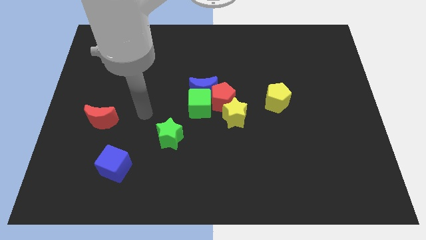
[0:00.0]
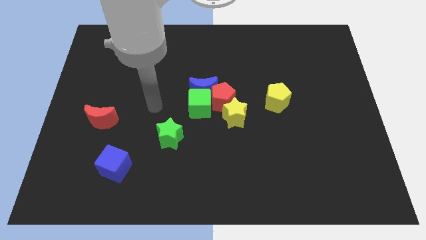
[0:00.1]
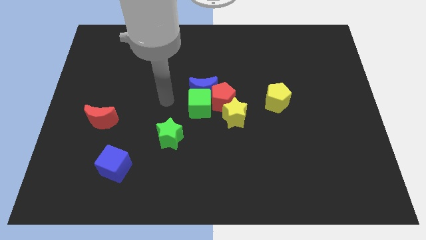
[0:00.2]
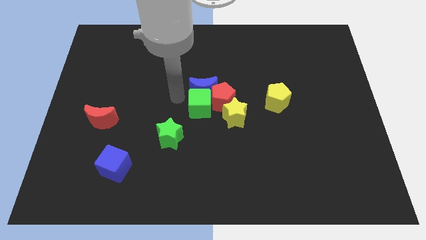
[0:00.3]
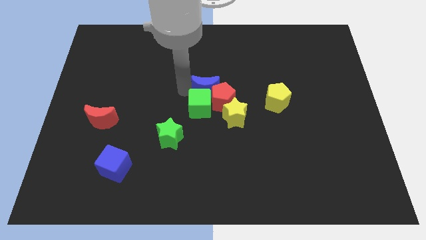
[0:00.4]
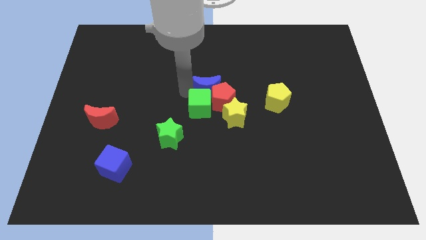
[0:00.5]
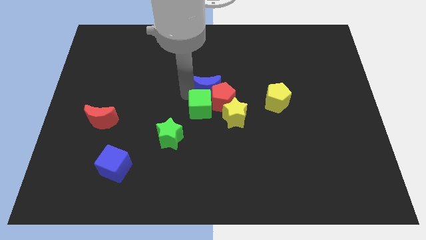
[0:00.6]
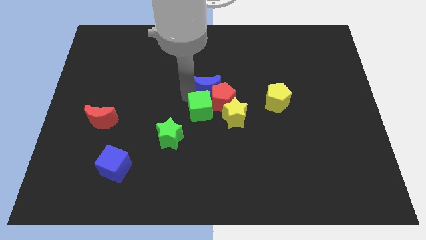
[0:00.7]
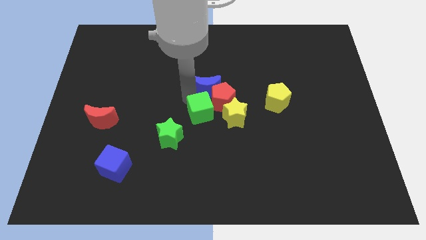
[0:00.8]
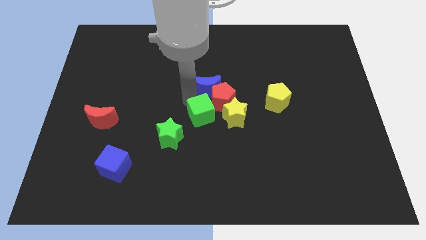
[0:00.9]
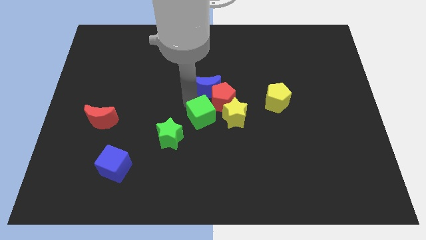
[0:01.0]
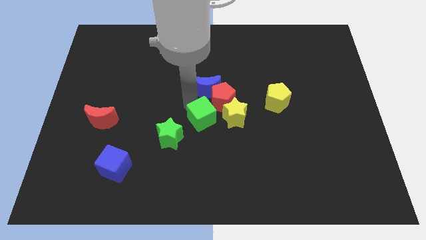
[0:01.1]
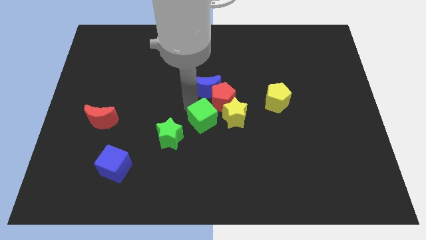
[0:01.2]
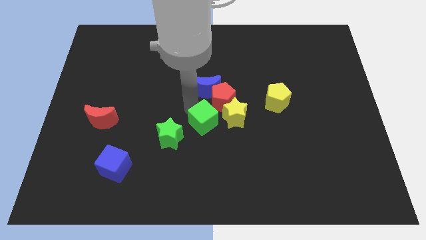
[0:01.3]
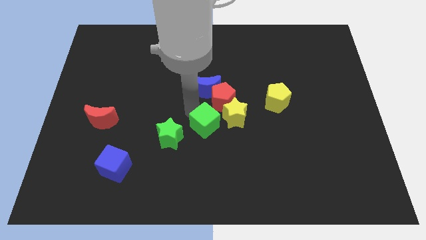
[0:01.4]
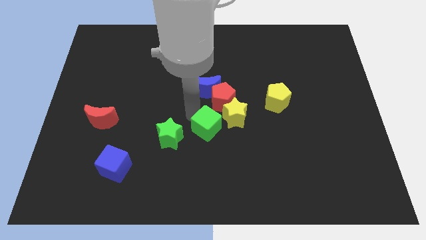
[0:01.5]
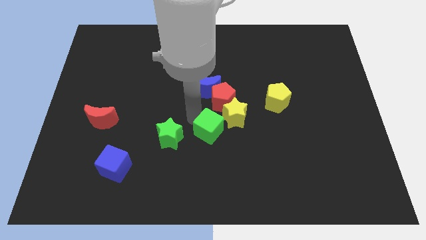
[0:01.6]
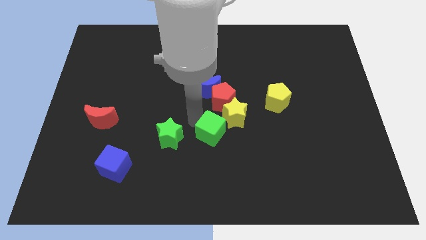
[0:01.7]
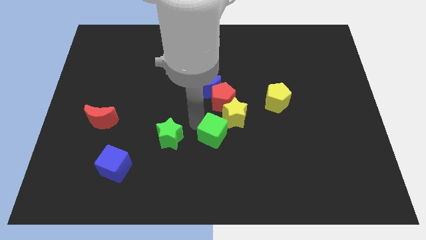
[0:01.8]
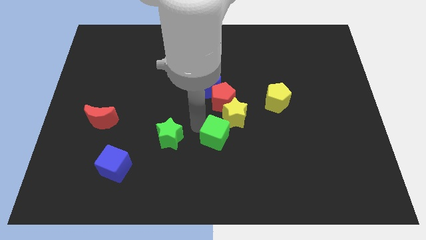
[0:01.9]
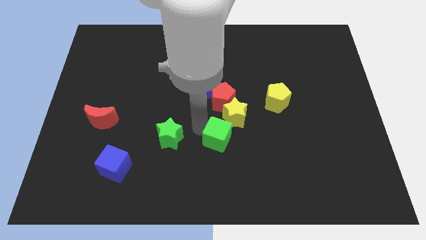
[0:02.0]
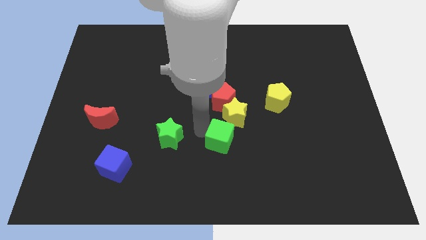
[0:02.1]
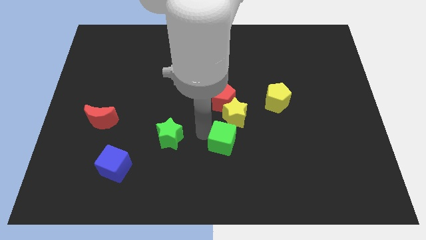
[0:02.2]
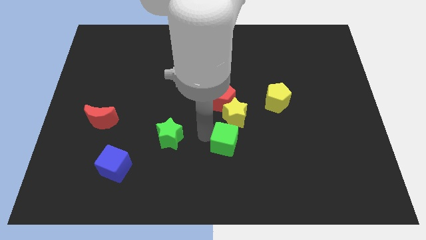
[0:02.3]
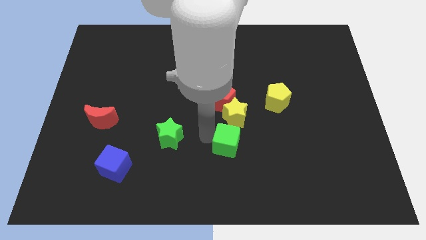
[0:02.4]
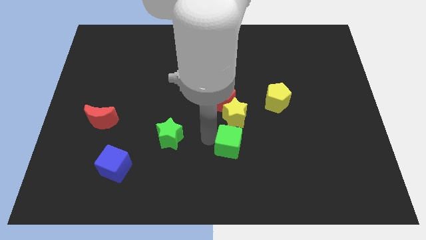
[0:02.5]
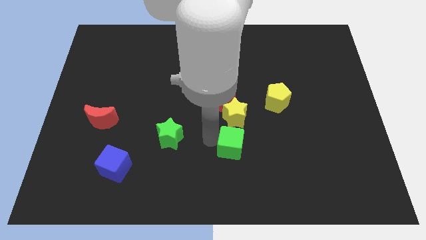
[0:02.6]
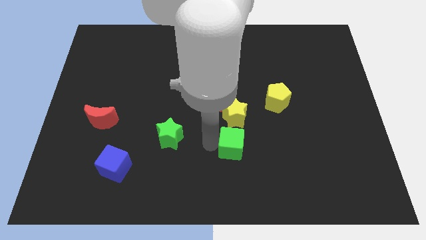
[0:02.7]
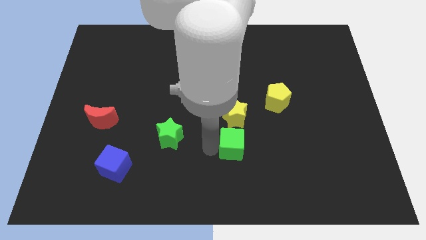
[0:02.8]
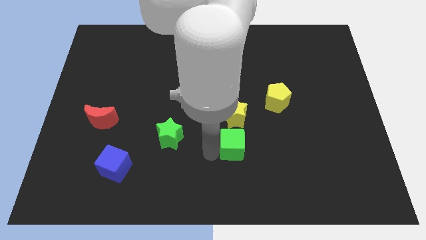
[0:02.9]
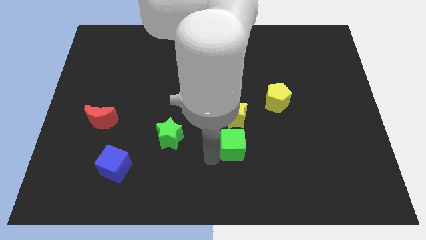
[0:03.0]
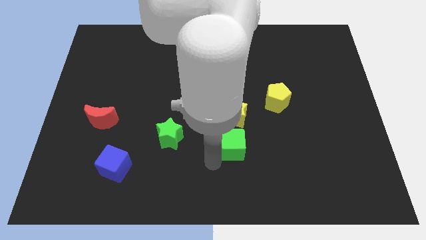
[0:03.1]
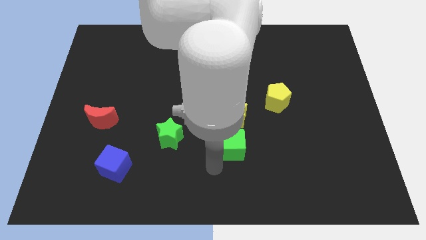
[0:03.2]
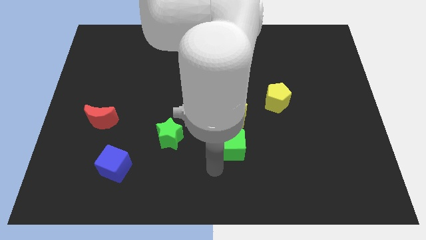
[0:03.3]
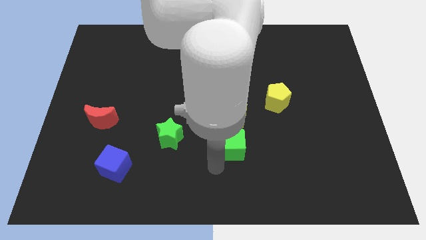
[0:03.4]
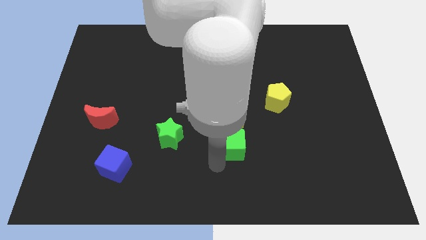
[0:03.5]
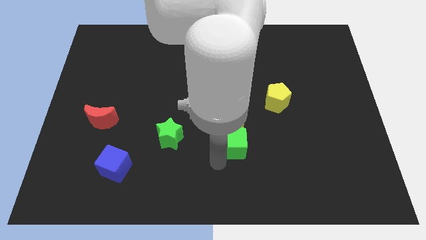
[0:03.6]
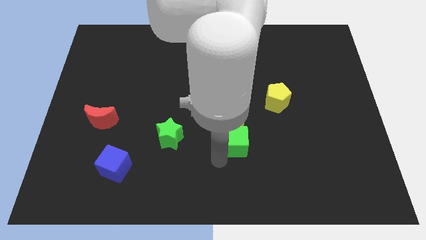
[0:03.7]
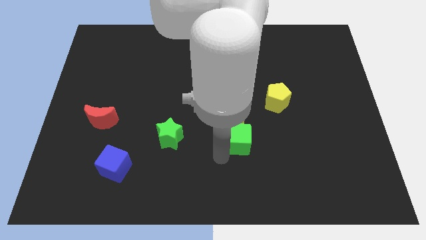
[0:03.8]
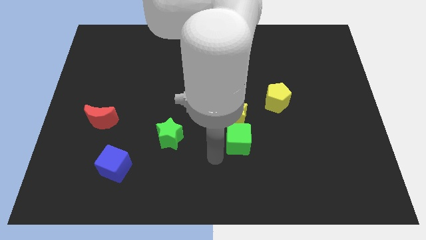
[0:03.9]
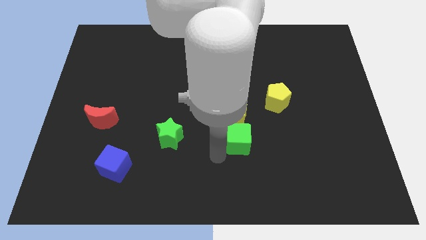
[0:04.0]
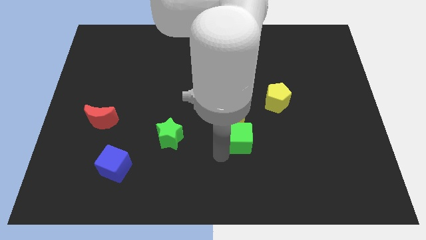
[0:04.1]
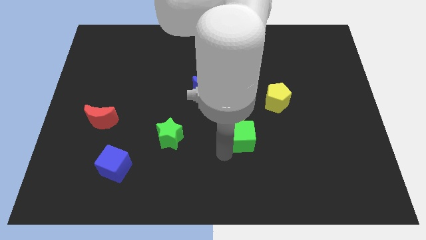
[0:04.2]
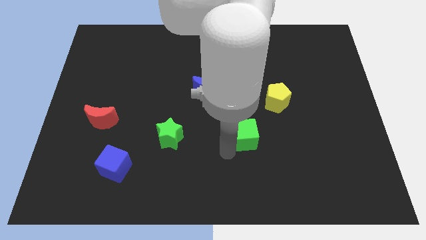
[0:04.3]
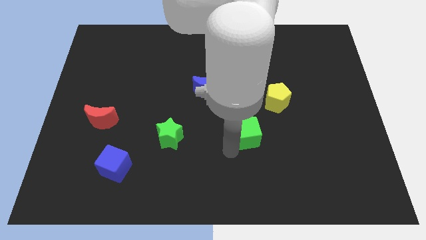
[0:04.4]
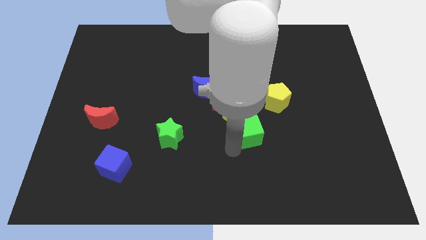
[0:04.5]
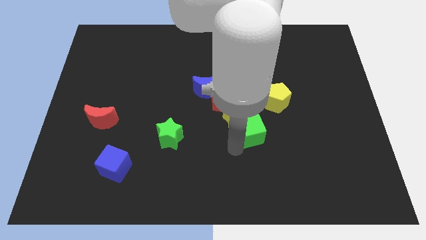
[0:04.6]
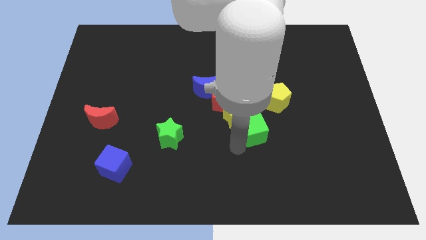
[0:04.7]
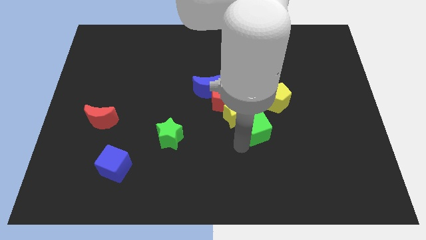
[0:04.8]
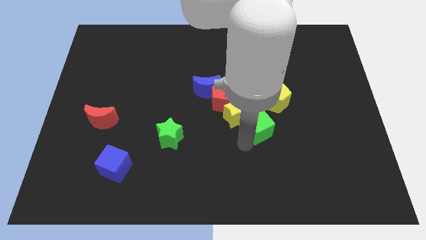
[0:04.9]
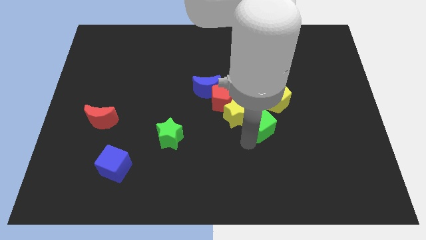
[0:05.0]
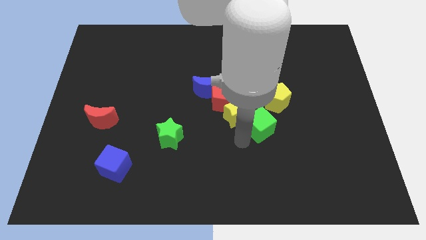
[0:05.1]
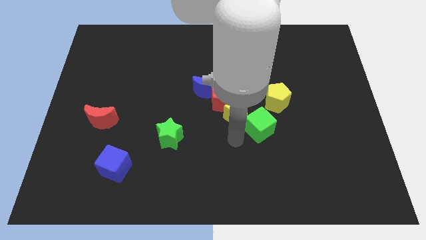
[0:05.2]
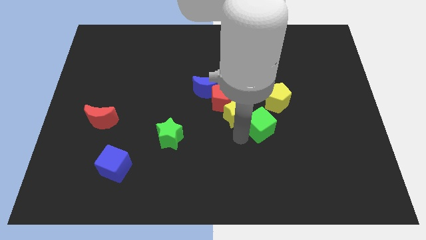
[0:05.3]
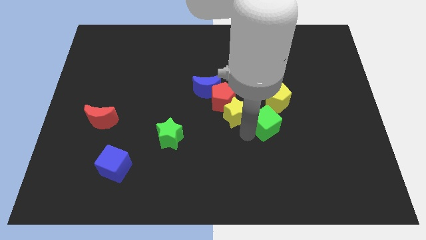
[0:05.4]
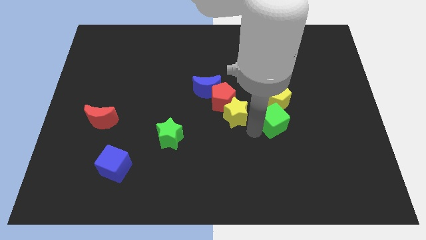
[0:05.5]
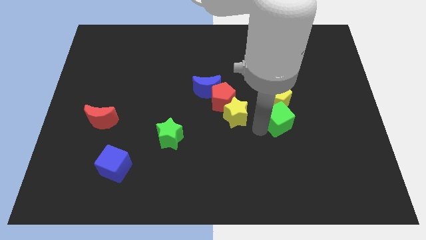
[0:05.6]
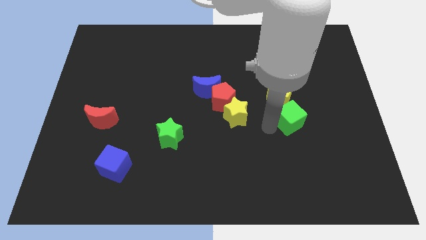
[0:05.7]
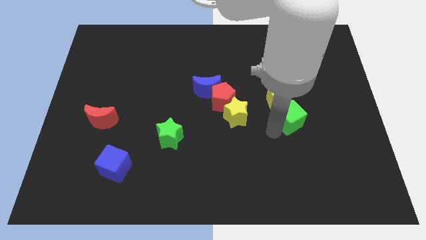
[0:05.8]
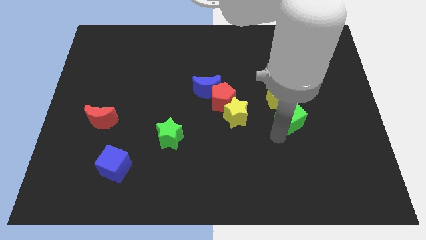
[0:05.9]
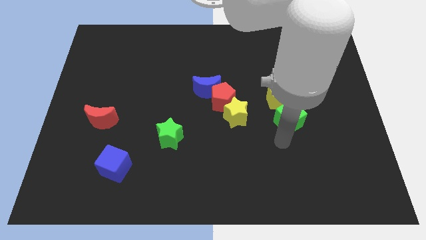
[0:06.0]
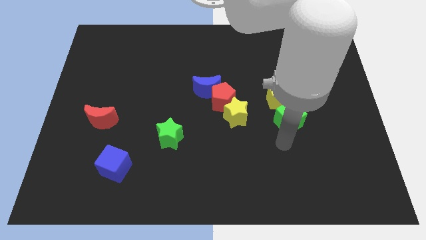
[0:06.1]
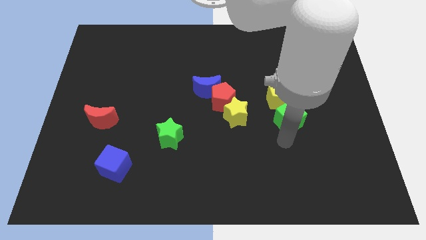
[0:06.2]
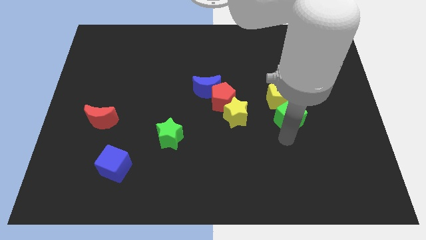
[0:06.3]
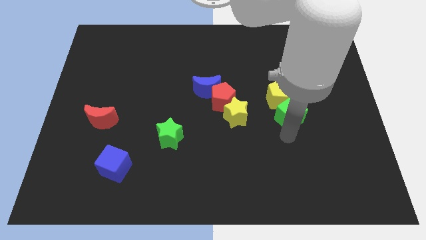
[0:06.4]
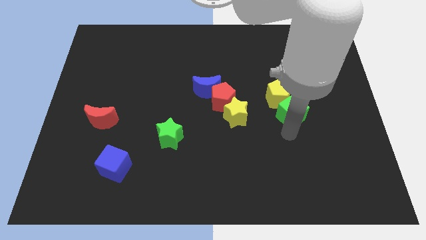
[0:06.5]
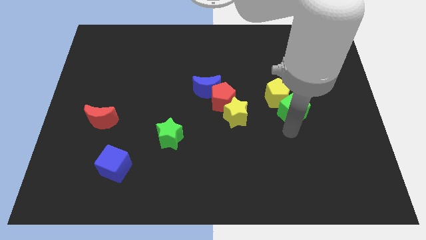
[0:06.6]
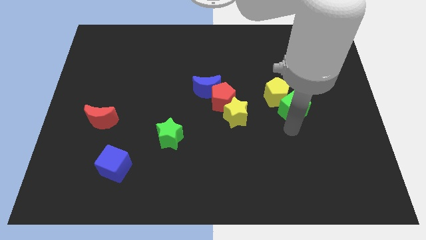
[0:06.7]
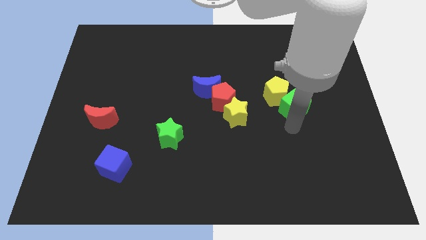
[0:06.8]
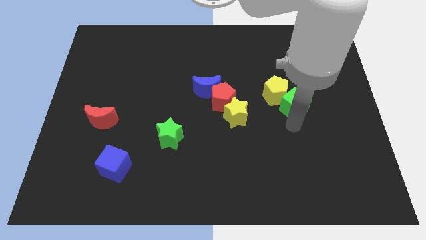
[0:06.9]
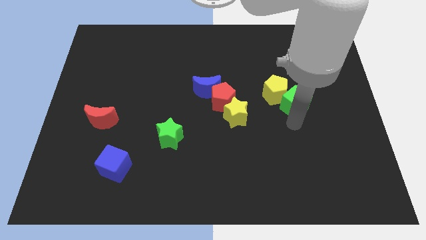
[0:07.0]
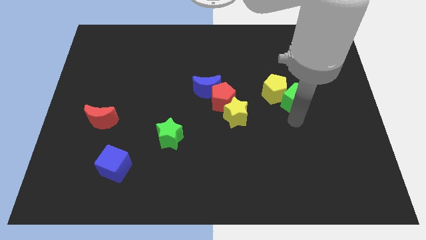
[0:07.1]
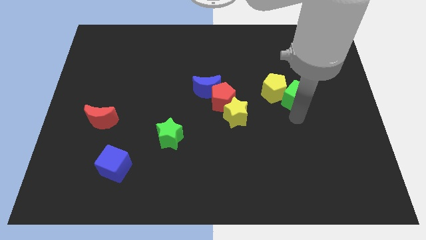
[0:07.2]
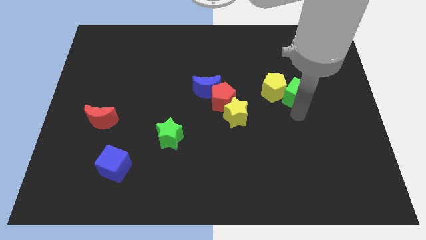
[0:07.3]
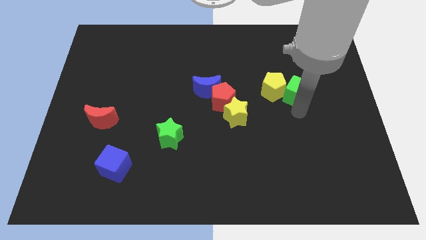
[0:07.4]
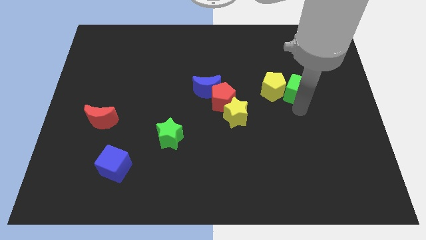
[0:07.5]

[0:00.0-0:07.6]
push the green cube to the top right side of the yellow pentagon

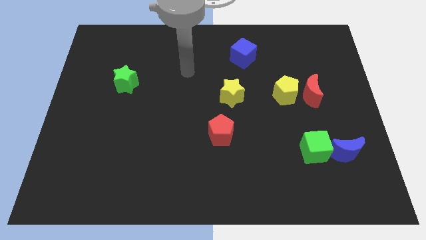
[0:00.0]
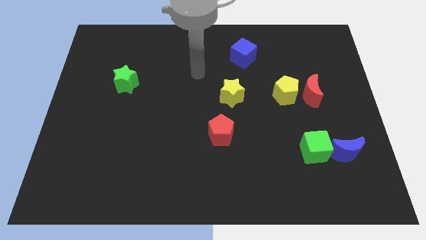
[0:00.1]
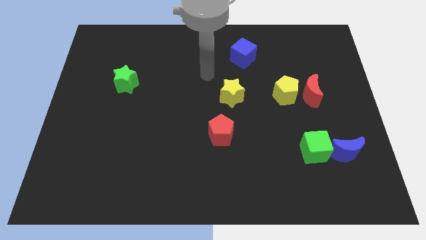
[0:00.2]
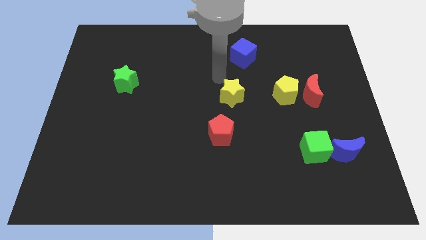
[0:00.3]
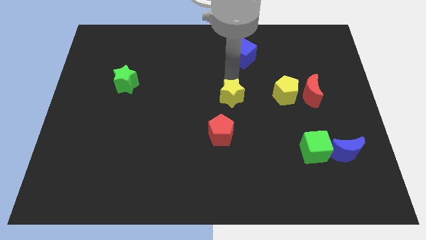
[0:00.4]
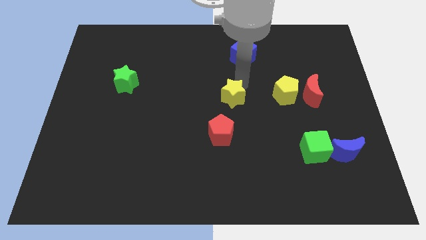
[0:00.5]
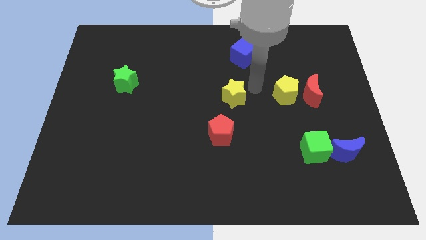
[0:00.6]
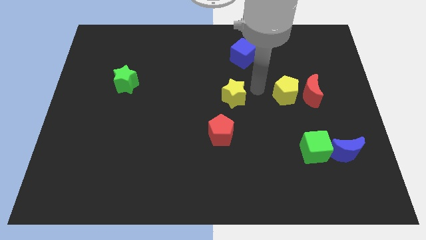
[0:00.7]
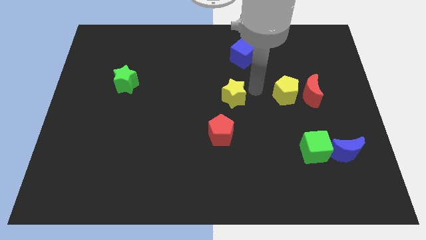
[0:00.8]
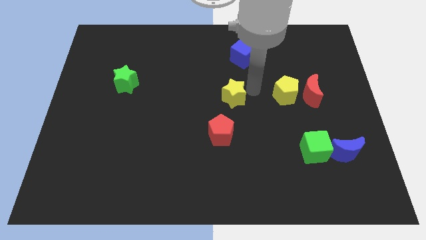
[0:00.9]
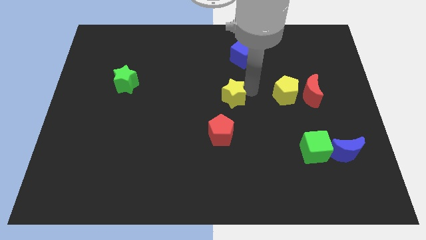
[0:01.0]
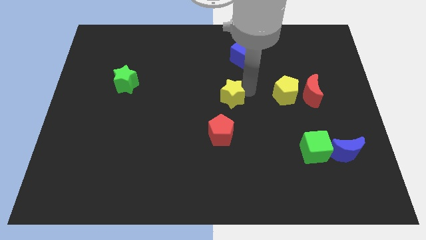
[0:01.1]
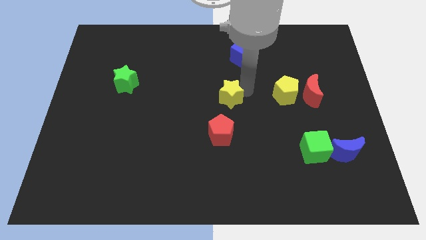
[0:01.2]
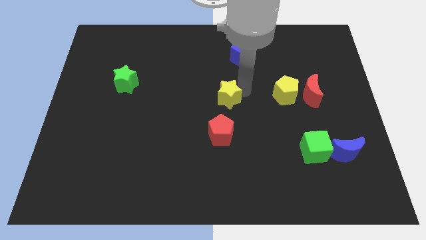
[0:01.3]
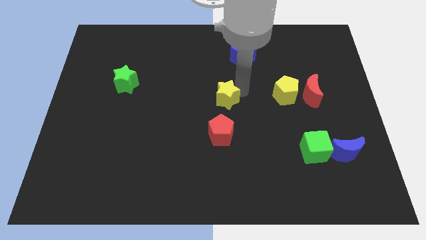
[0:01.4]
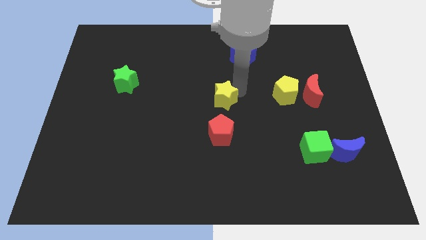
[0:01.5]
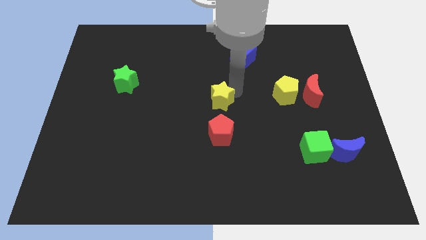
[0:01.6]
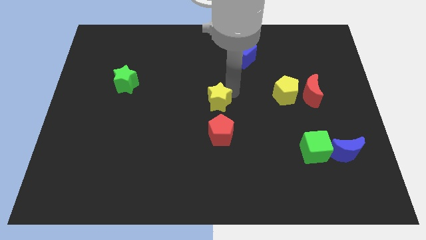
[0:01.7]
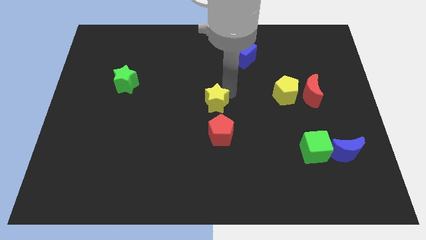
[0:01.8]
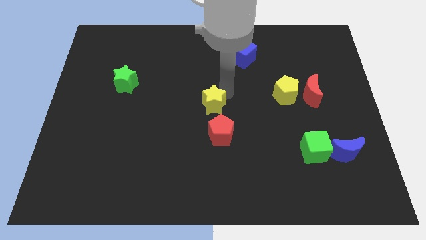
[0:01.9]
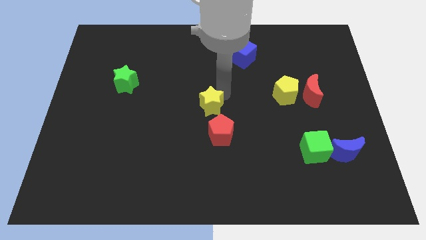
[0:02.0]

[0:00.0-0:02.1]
push the yellow star to the top left side of the red pentagon
